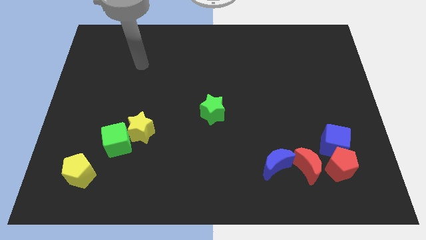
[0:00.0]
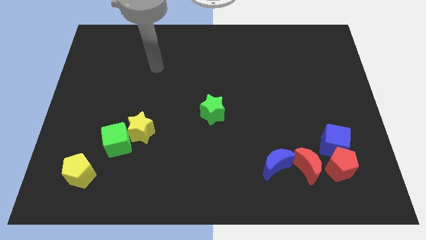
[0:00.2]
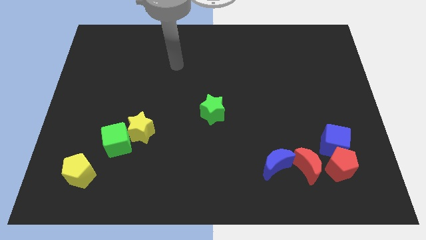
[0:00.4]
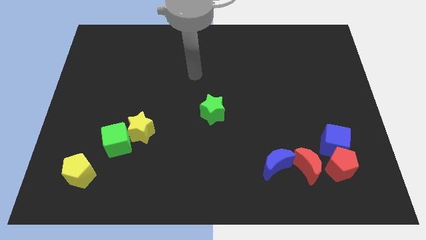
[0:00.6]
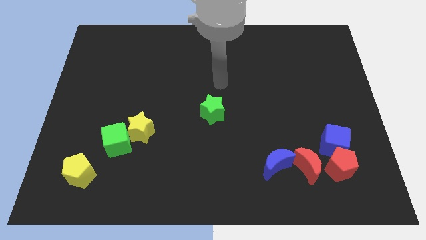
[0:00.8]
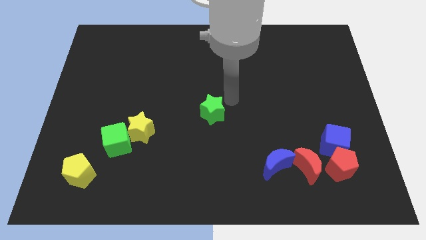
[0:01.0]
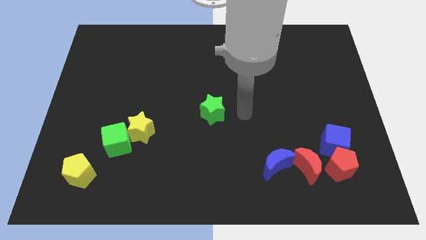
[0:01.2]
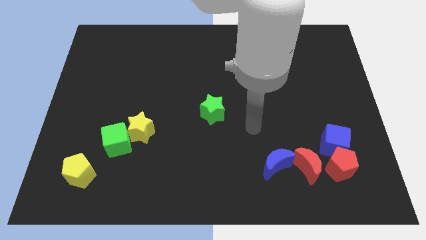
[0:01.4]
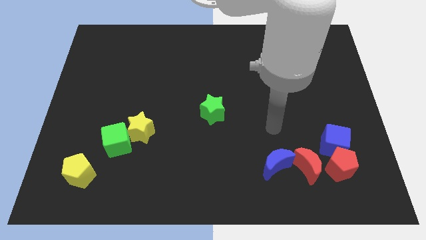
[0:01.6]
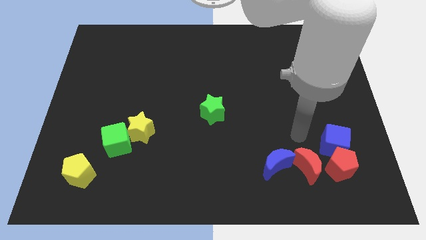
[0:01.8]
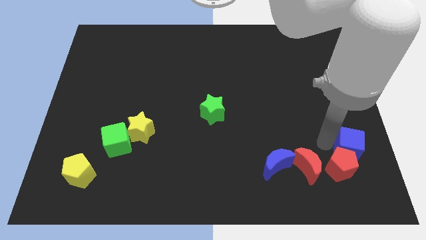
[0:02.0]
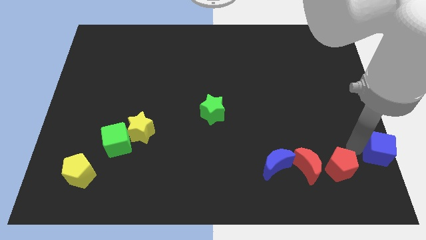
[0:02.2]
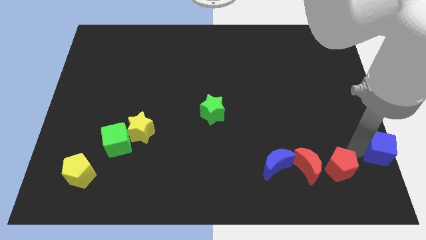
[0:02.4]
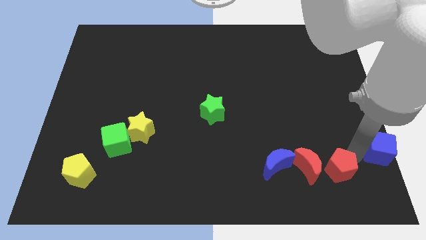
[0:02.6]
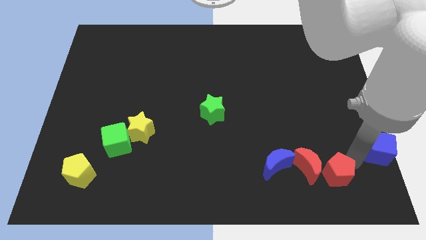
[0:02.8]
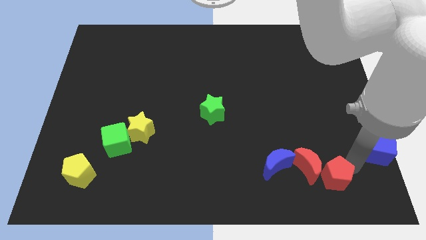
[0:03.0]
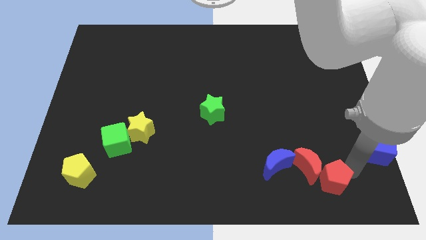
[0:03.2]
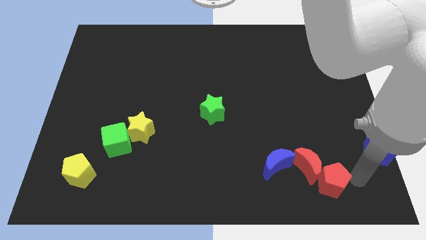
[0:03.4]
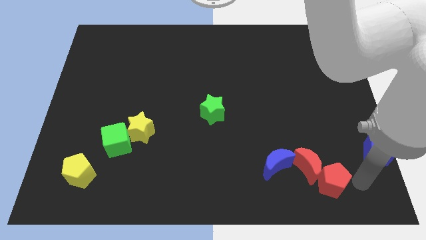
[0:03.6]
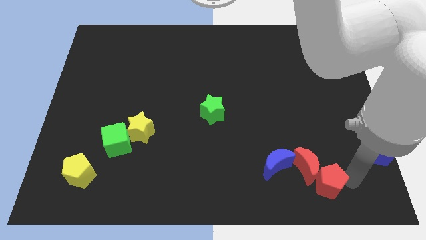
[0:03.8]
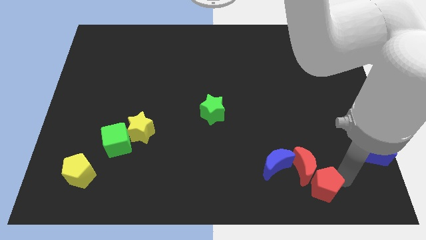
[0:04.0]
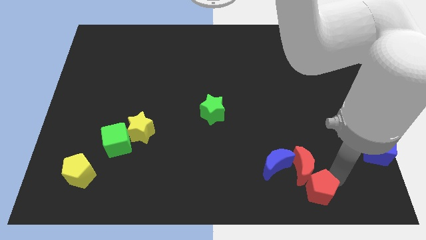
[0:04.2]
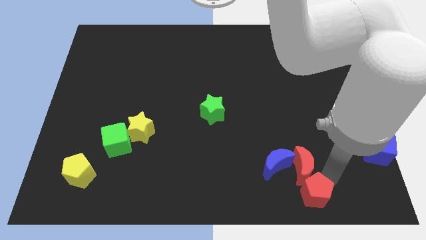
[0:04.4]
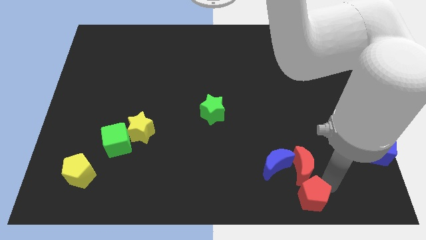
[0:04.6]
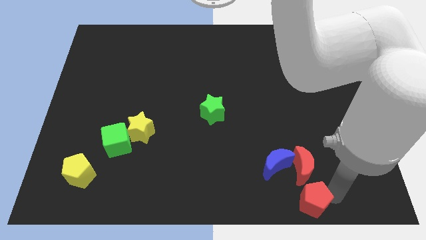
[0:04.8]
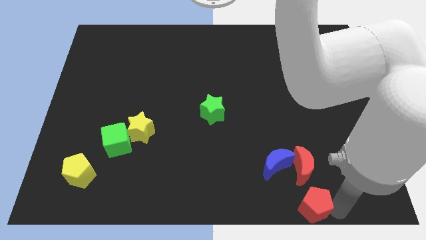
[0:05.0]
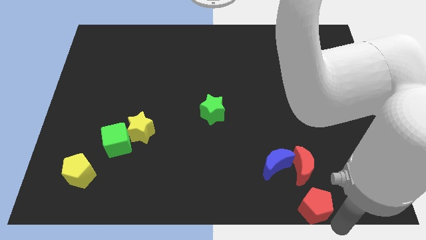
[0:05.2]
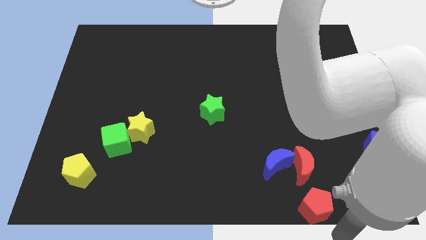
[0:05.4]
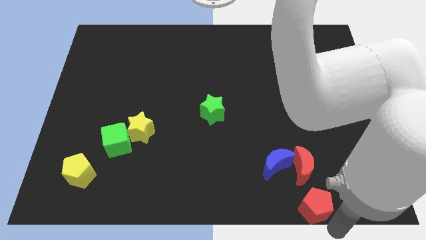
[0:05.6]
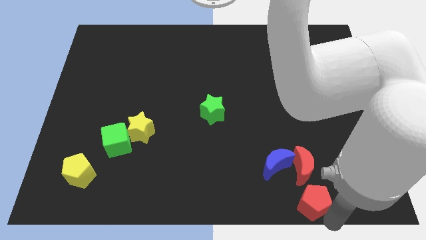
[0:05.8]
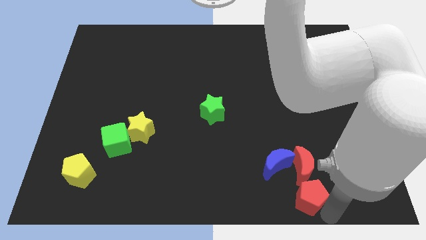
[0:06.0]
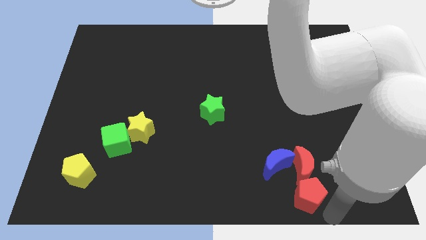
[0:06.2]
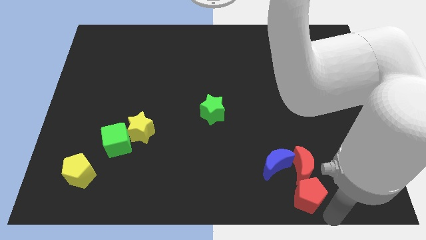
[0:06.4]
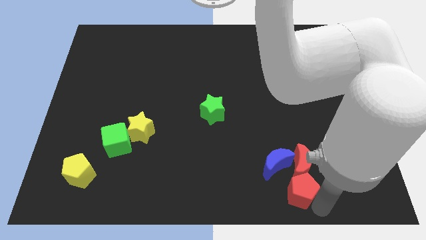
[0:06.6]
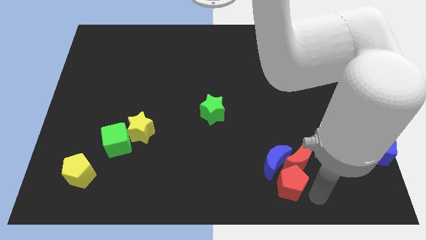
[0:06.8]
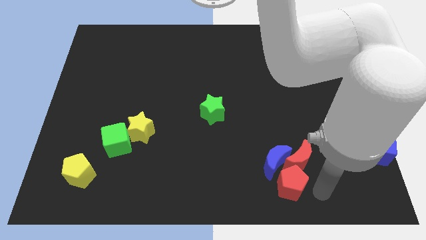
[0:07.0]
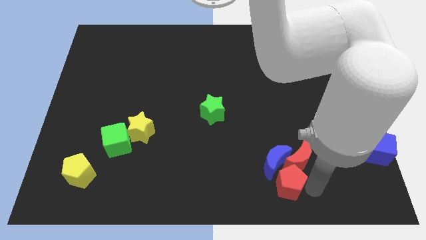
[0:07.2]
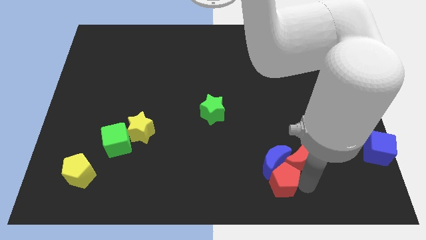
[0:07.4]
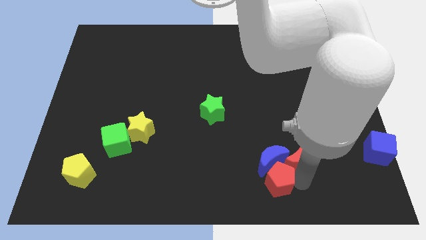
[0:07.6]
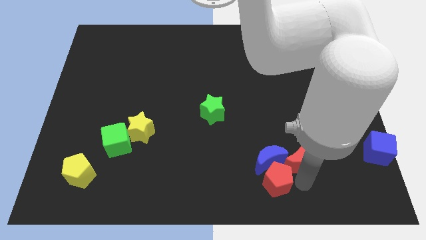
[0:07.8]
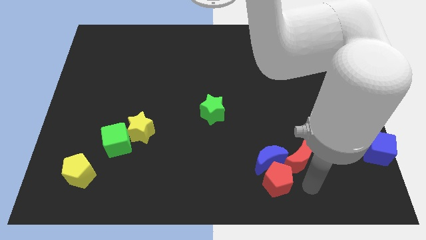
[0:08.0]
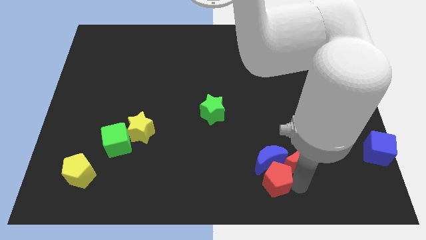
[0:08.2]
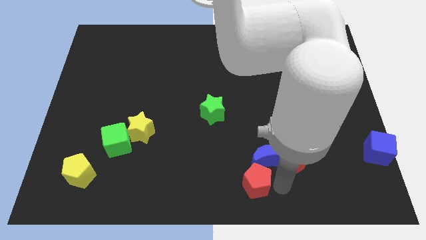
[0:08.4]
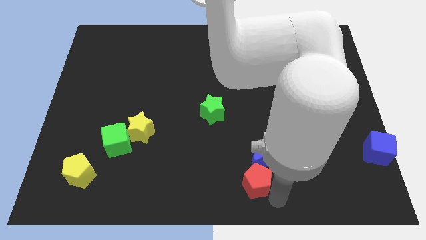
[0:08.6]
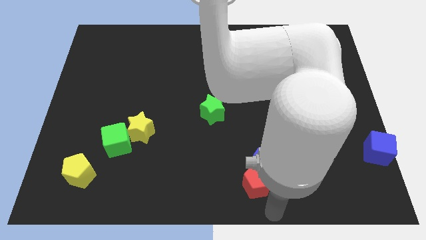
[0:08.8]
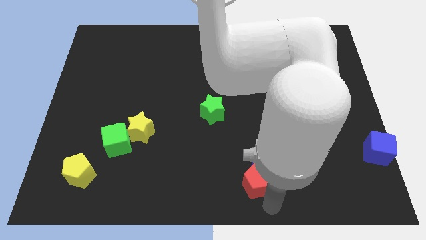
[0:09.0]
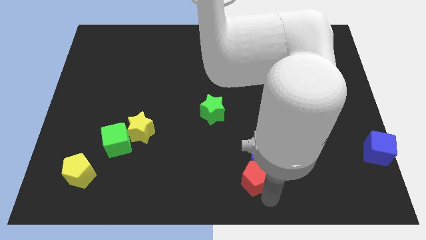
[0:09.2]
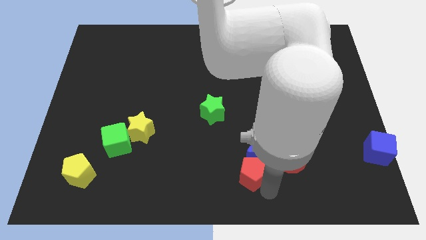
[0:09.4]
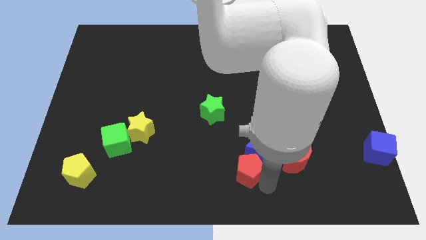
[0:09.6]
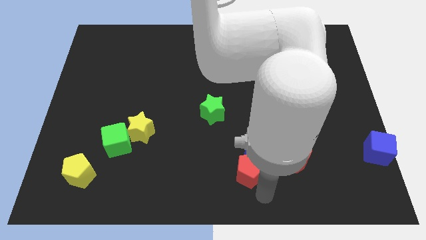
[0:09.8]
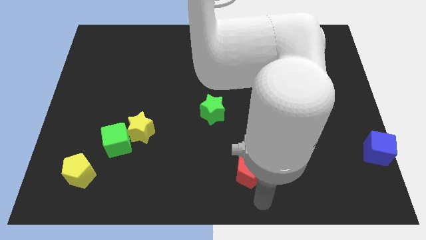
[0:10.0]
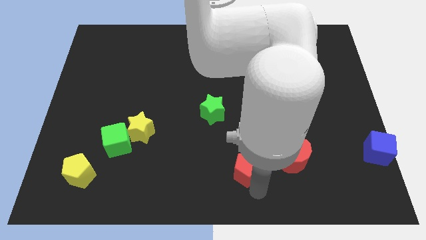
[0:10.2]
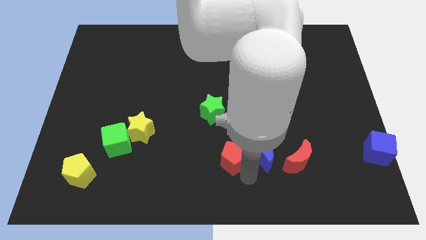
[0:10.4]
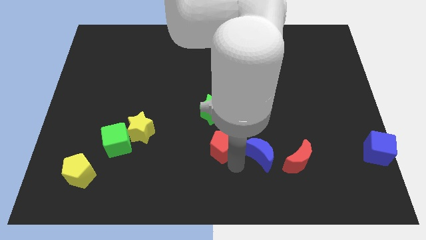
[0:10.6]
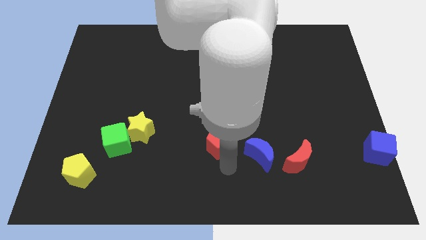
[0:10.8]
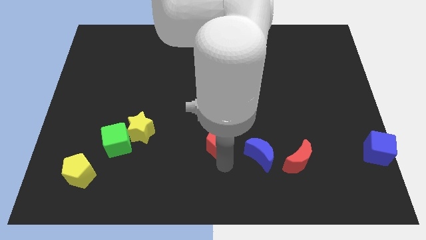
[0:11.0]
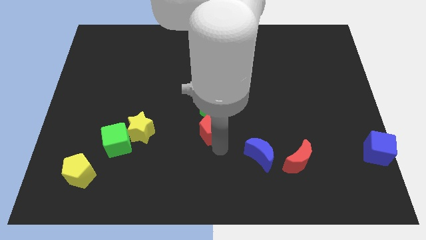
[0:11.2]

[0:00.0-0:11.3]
slide the red pentagon towards the green star

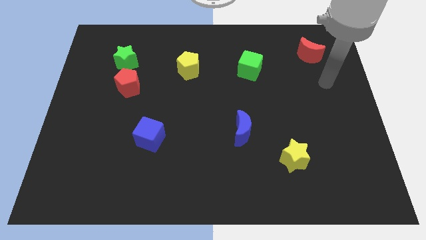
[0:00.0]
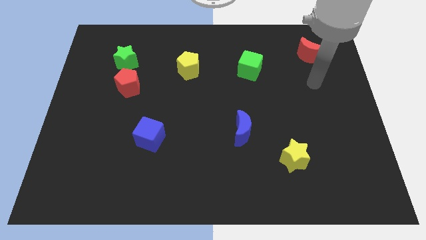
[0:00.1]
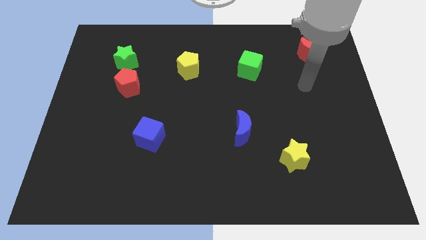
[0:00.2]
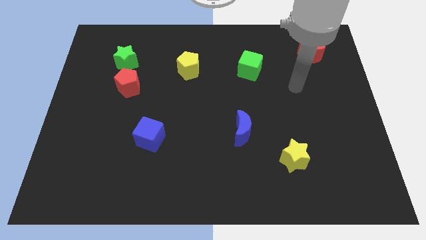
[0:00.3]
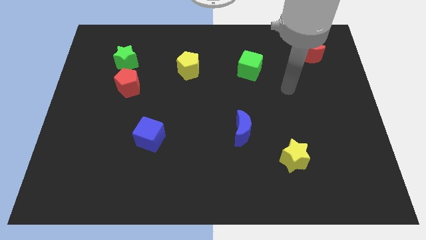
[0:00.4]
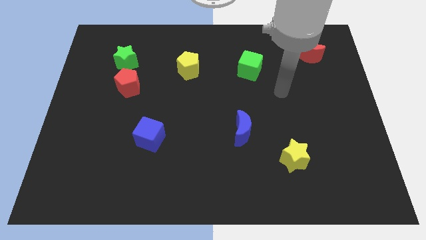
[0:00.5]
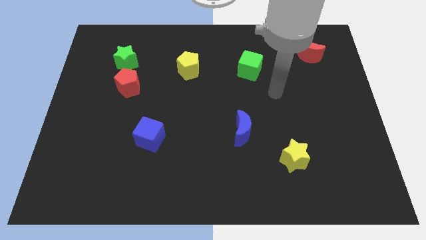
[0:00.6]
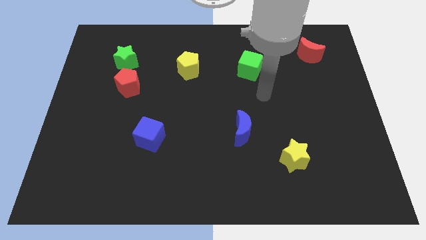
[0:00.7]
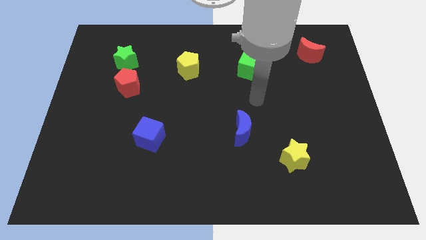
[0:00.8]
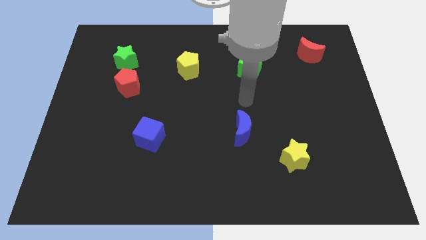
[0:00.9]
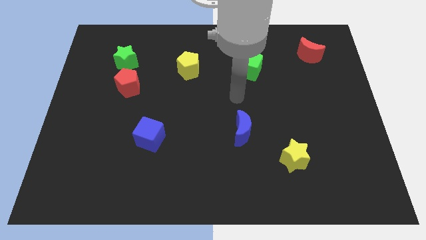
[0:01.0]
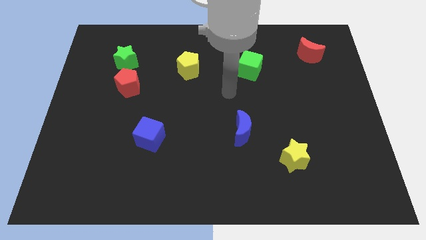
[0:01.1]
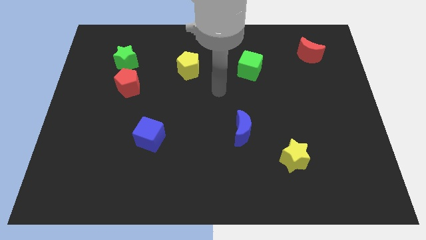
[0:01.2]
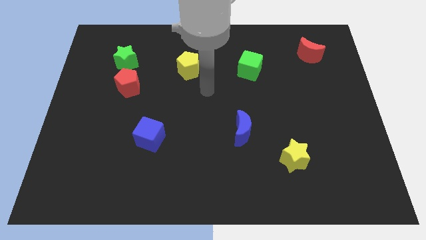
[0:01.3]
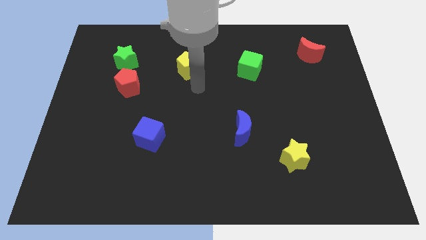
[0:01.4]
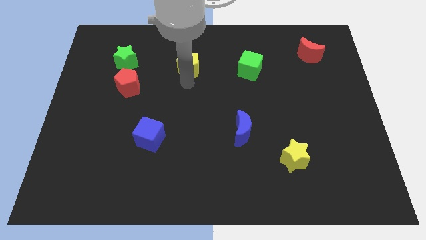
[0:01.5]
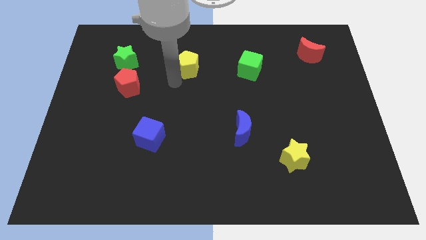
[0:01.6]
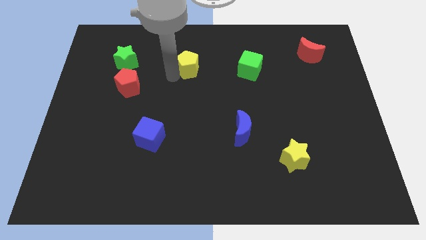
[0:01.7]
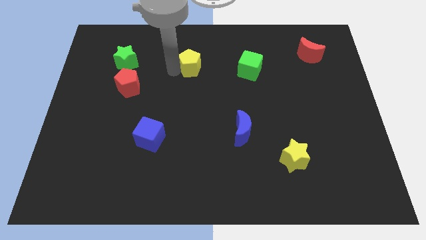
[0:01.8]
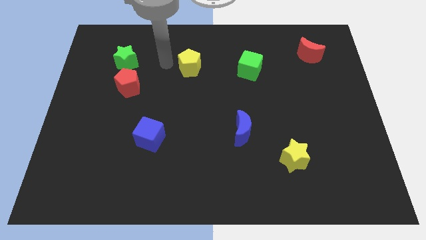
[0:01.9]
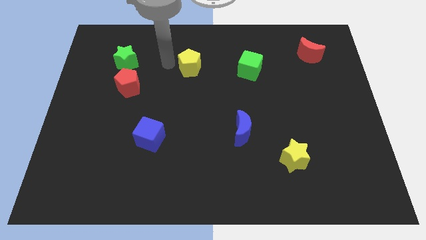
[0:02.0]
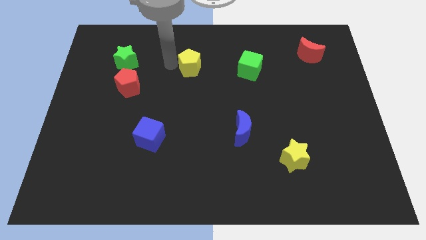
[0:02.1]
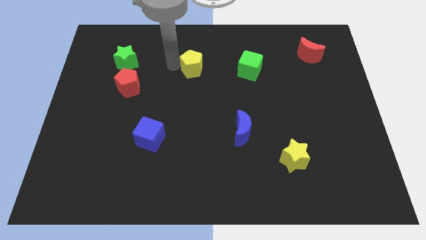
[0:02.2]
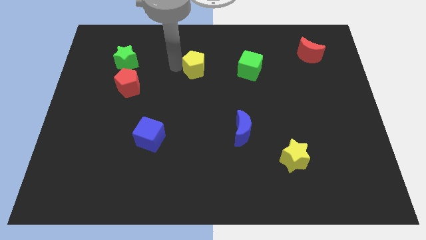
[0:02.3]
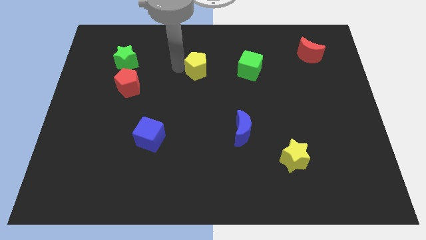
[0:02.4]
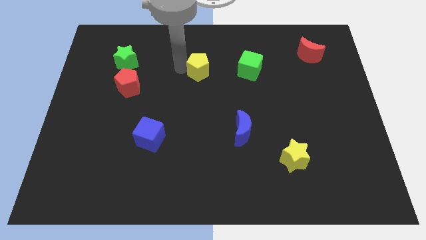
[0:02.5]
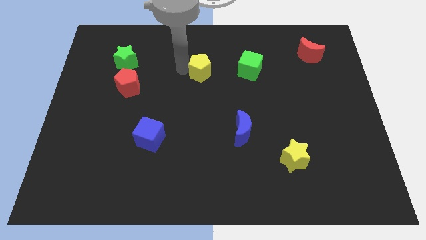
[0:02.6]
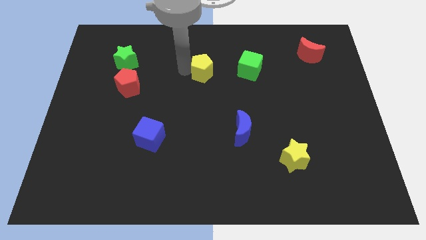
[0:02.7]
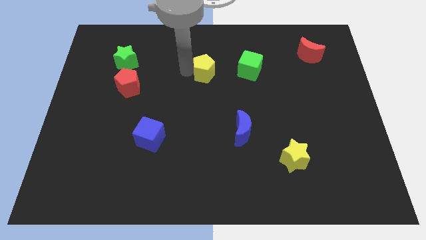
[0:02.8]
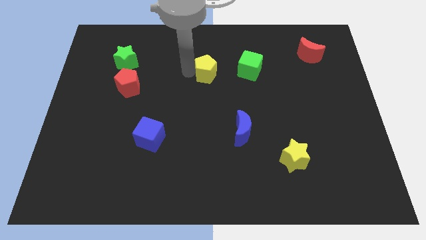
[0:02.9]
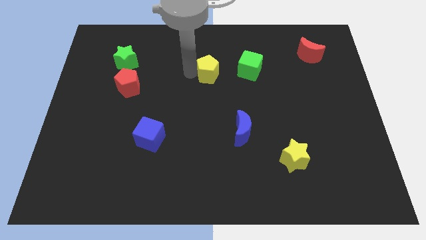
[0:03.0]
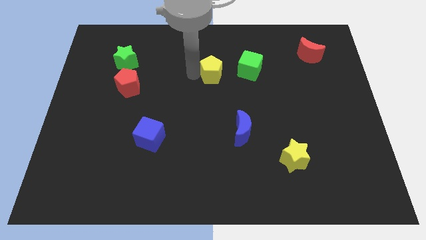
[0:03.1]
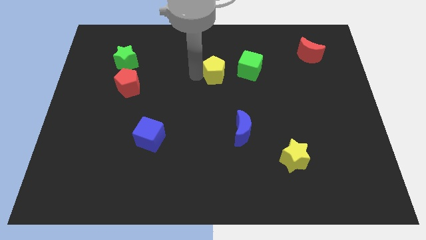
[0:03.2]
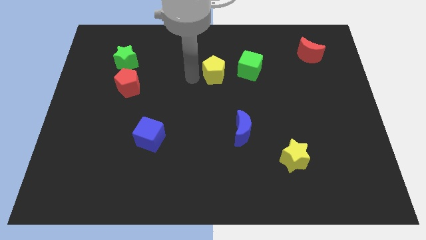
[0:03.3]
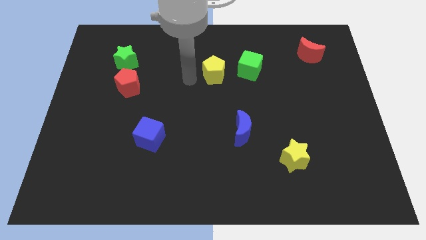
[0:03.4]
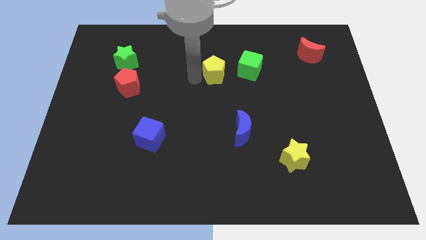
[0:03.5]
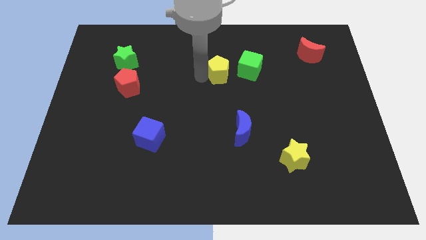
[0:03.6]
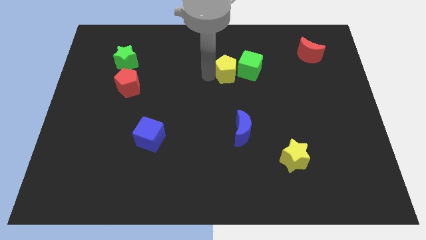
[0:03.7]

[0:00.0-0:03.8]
push the yellow pentagon close to the green cube
